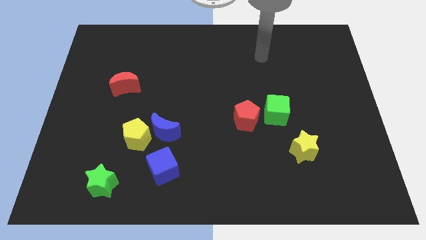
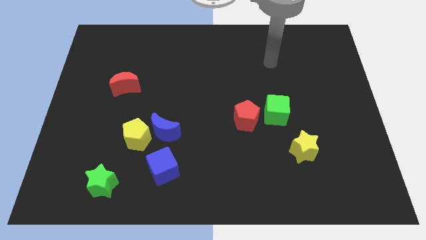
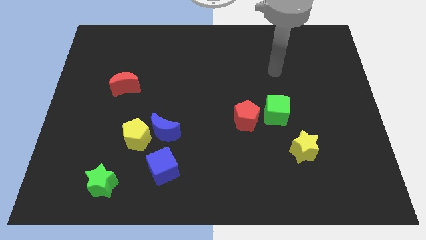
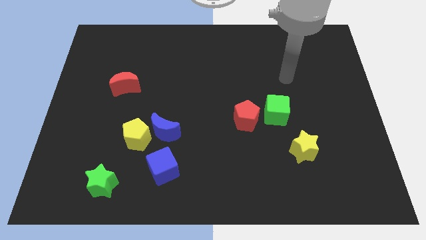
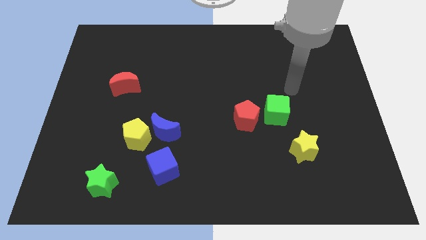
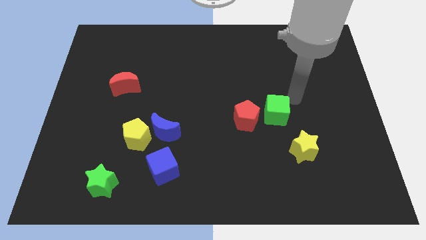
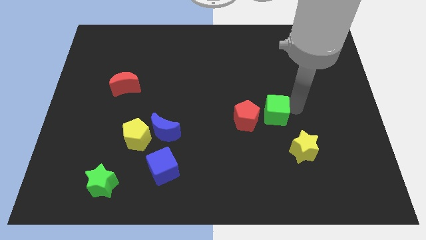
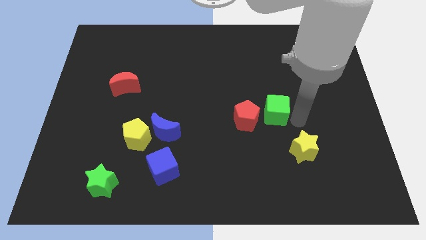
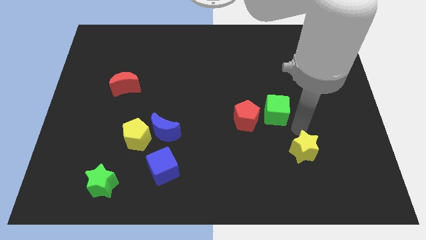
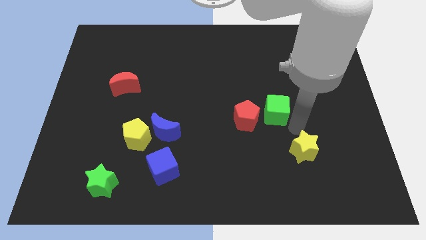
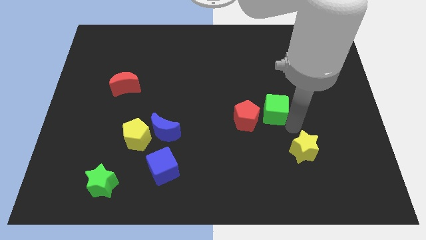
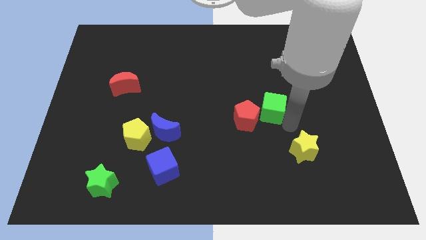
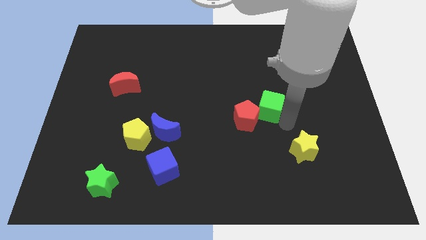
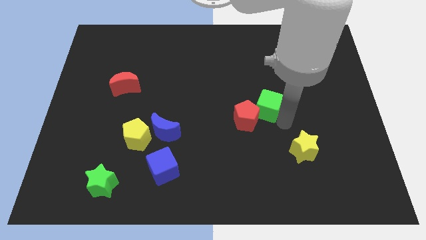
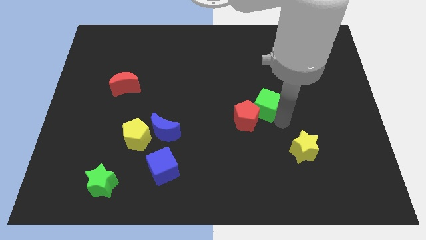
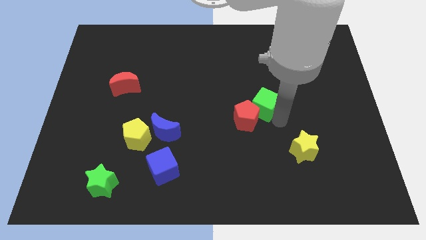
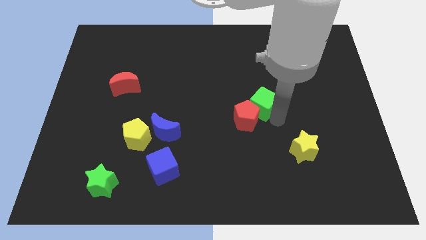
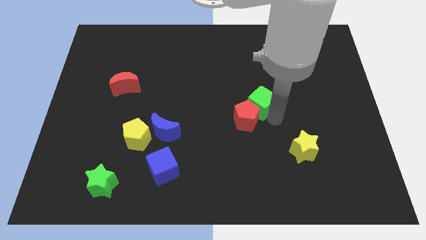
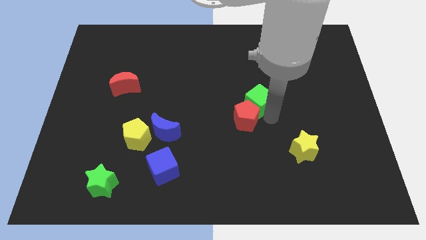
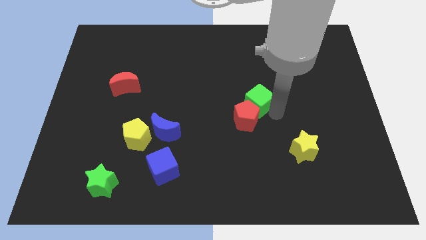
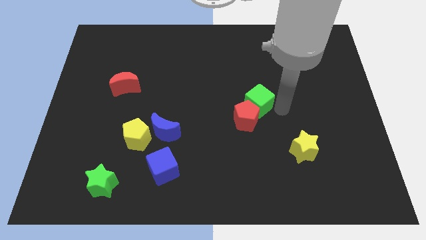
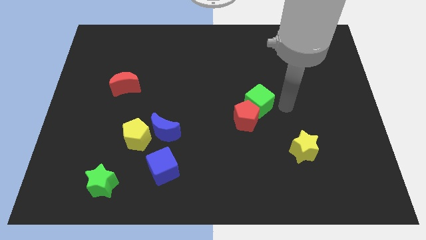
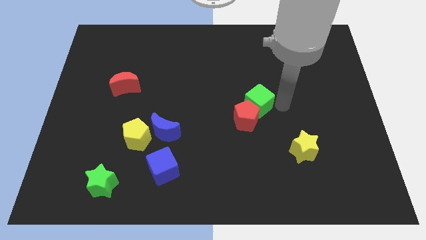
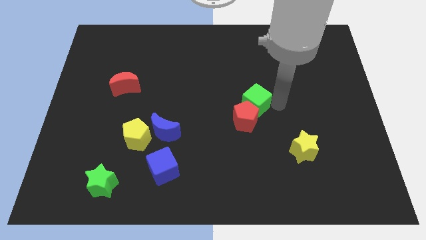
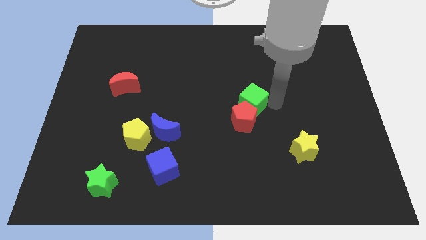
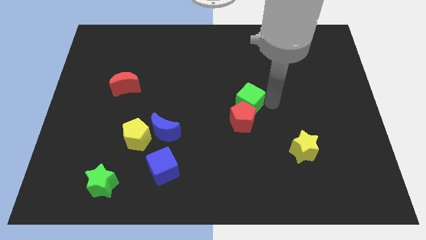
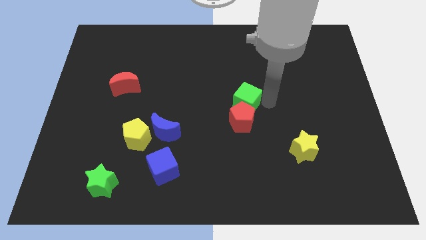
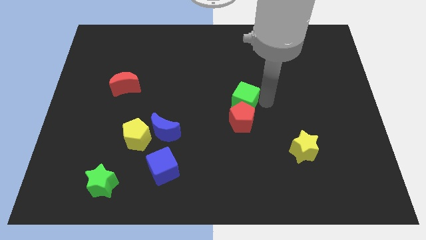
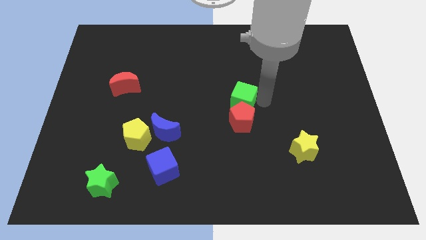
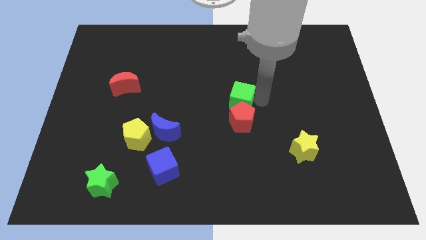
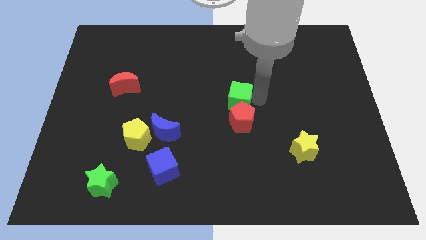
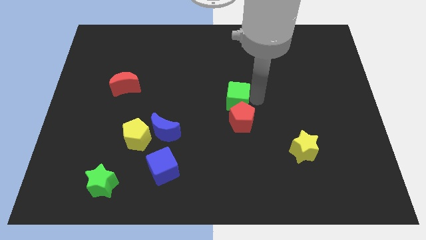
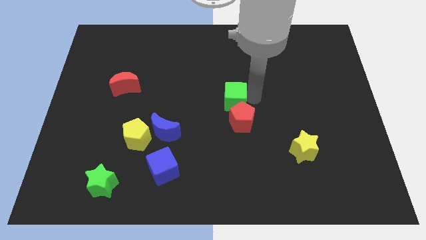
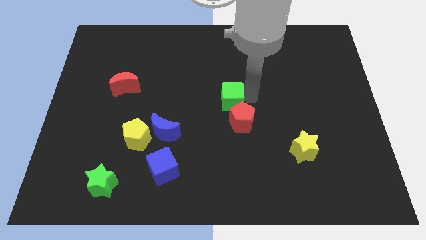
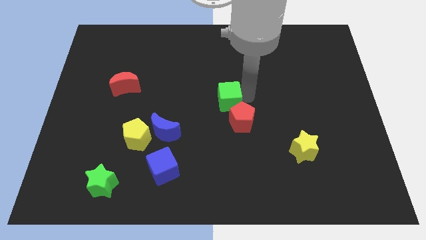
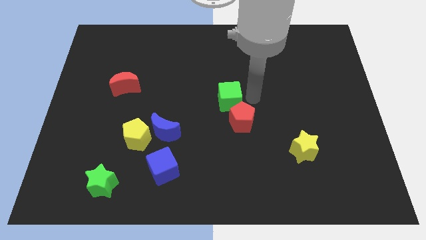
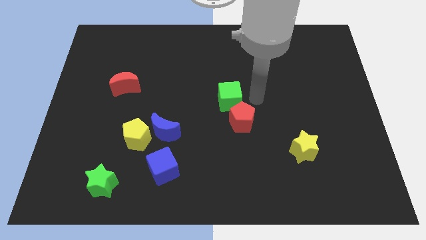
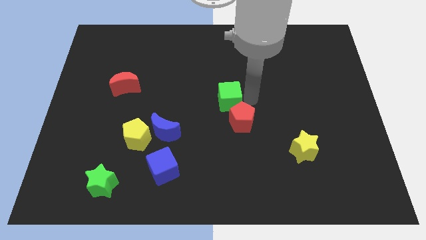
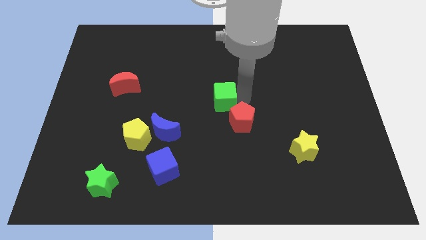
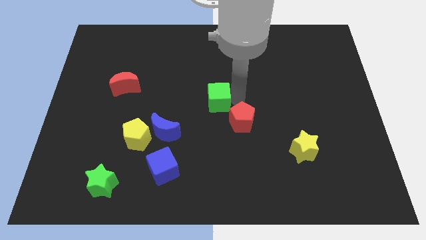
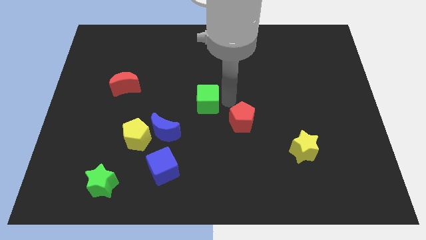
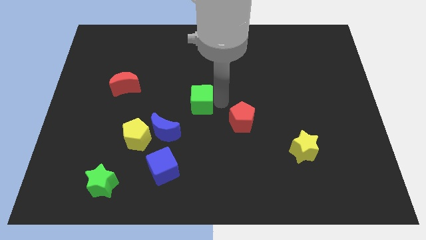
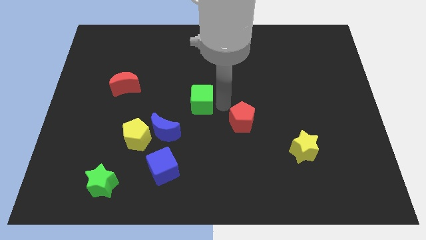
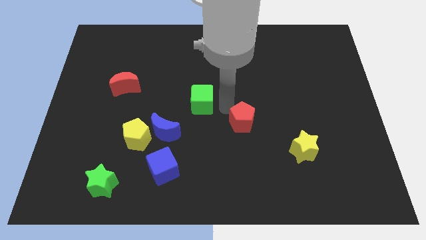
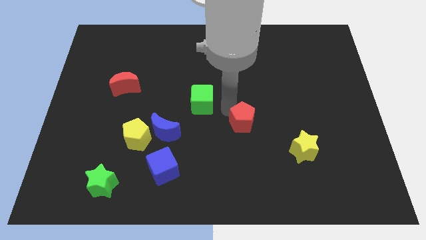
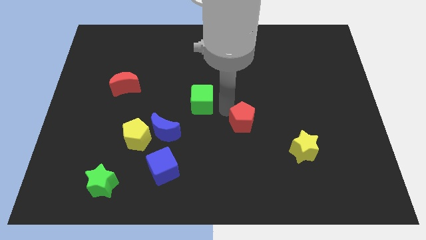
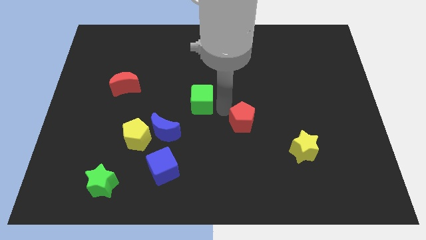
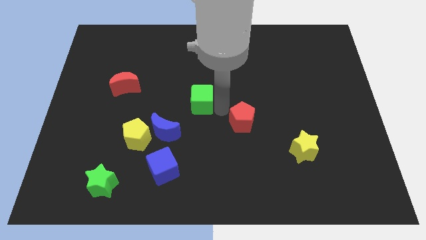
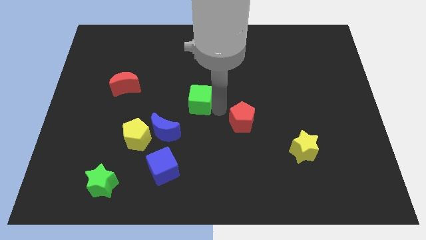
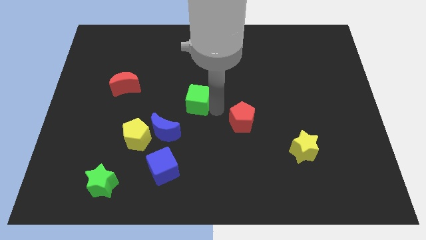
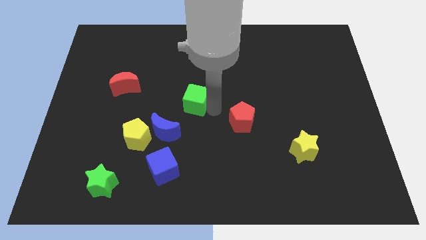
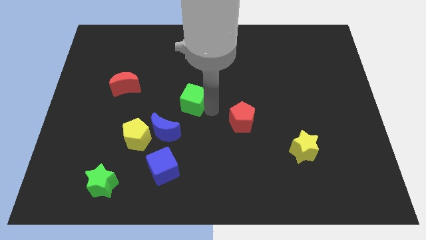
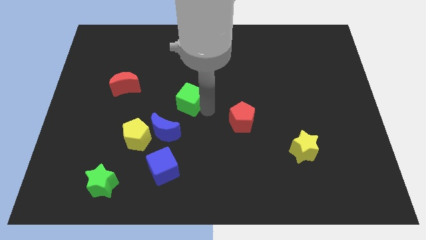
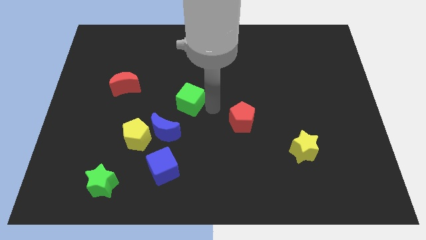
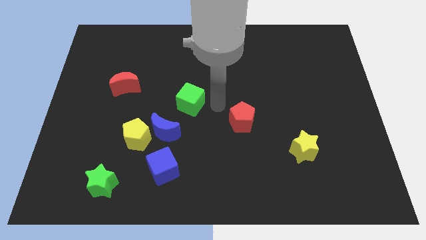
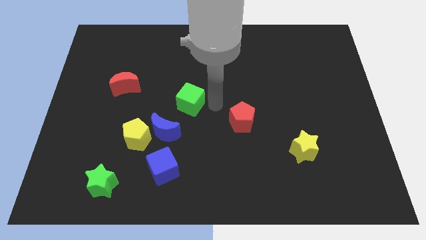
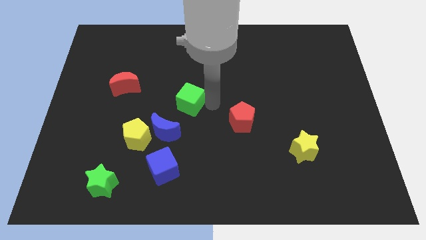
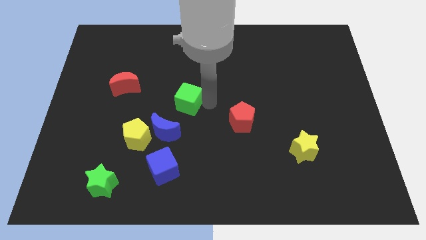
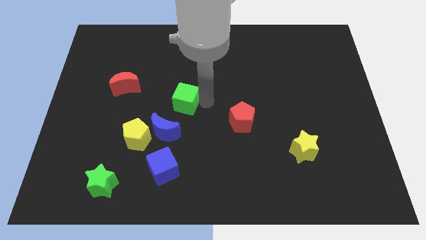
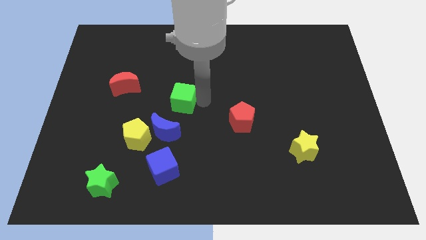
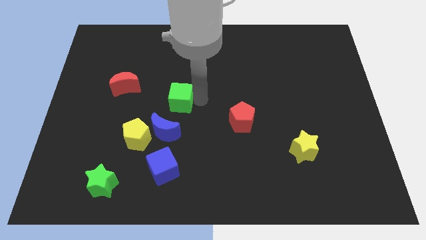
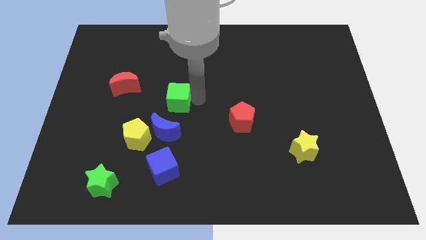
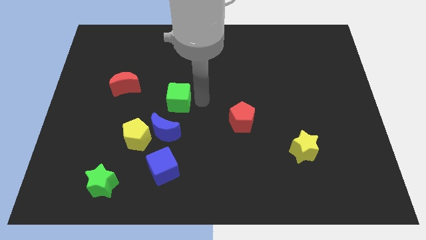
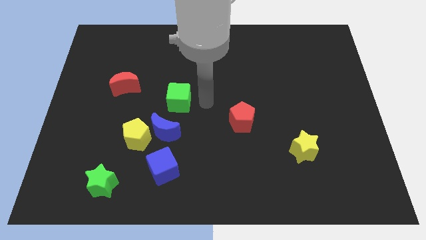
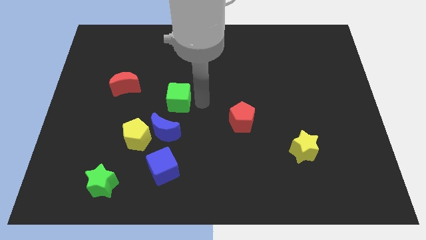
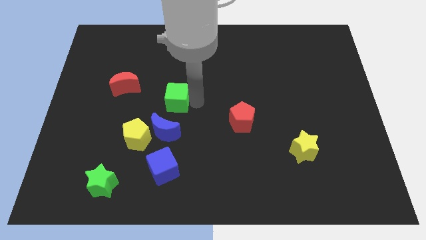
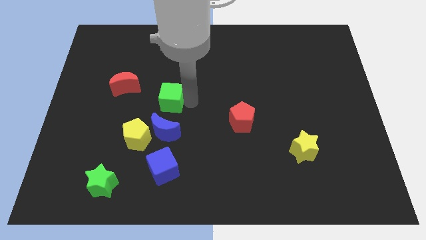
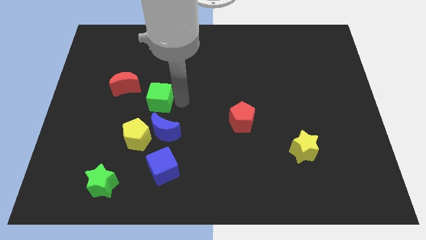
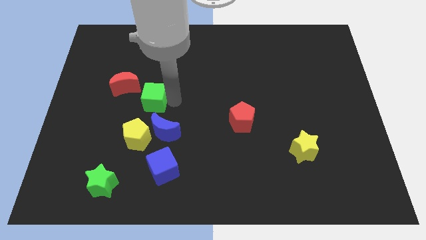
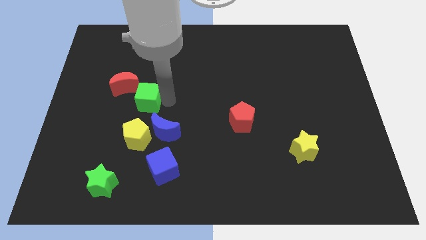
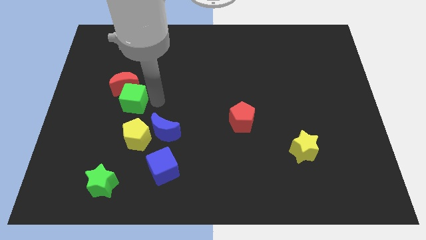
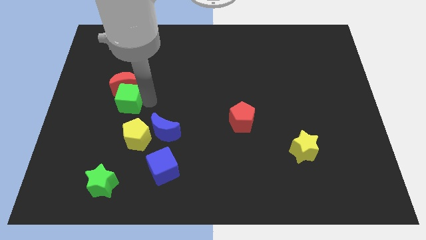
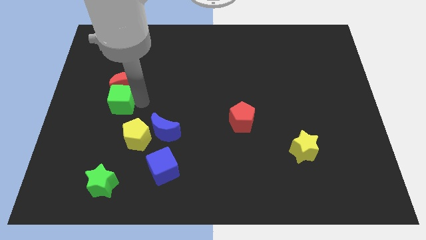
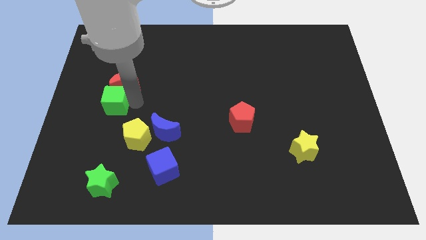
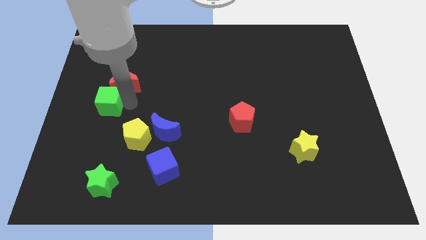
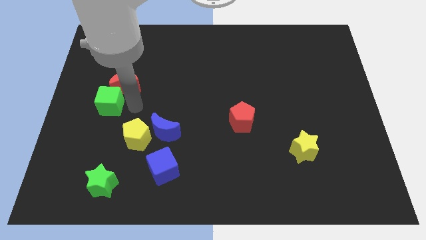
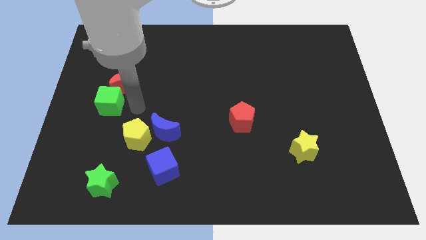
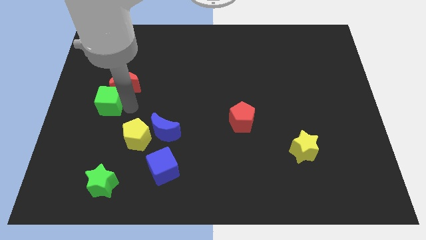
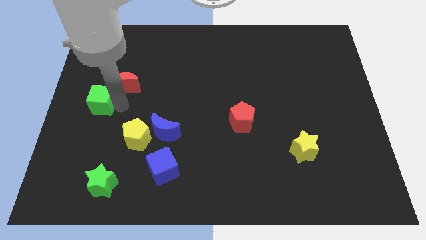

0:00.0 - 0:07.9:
put the green cube to the center left

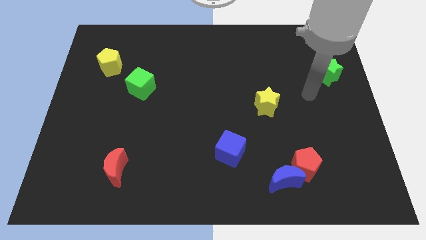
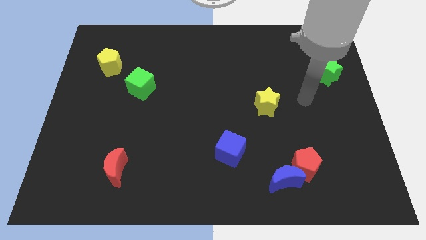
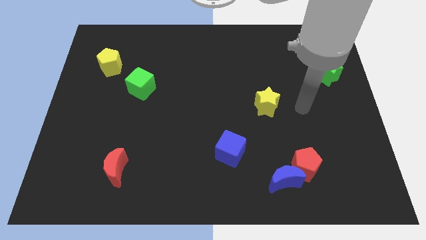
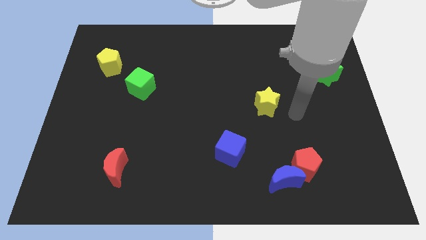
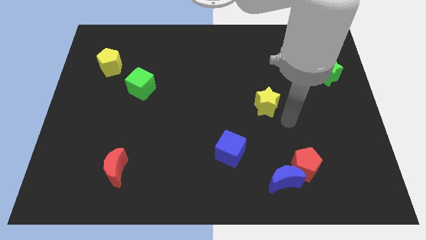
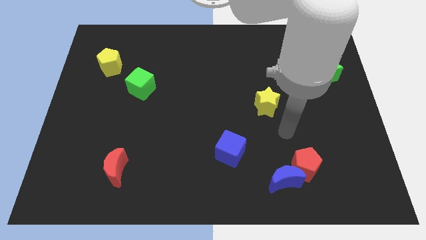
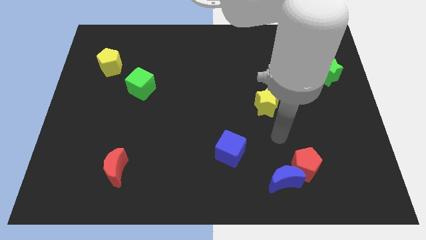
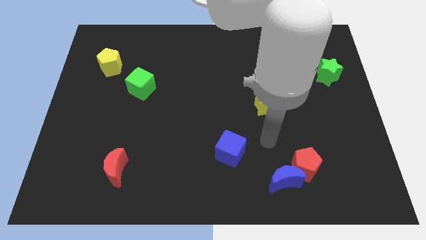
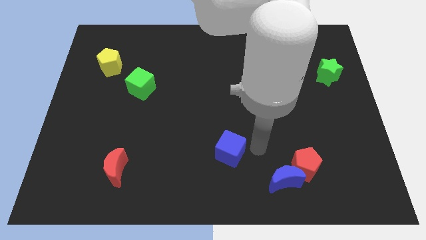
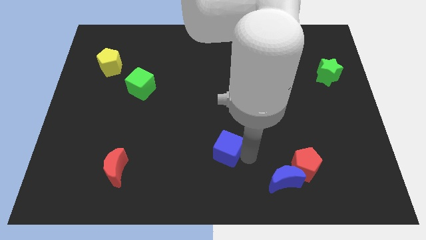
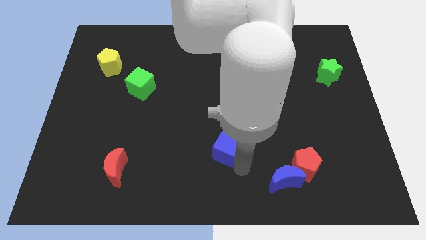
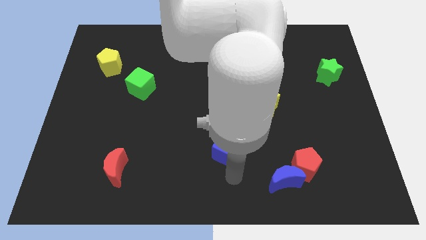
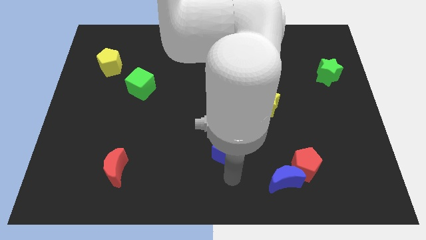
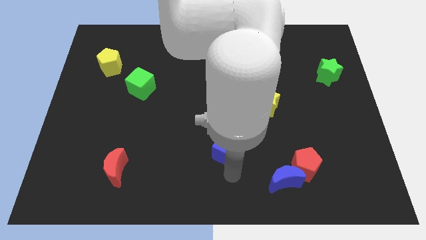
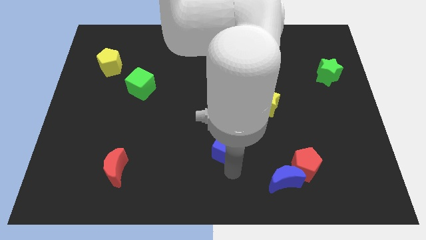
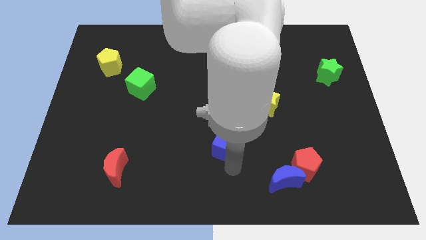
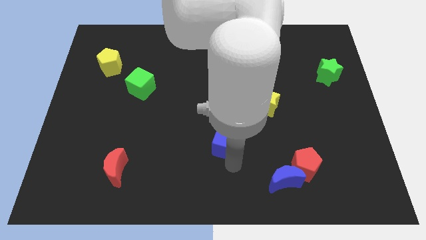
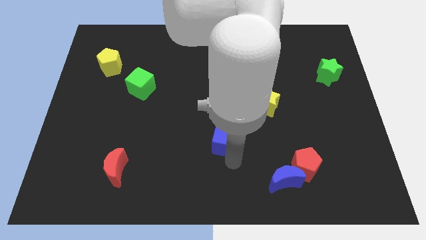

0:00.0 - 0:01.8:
put the blue cube to the middle of the board
